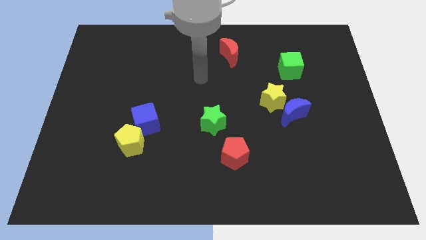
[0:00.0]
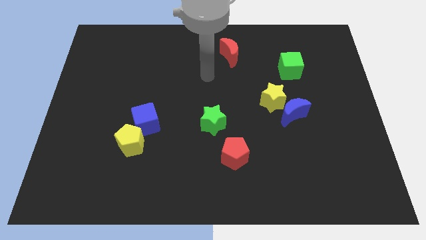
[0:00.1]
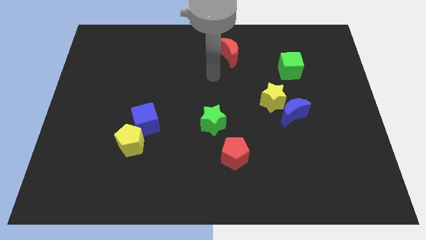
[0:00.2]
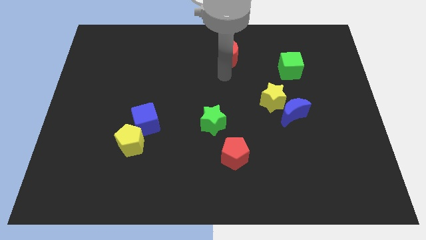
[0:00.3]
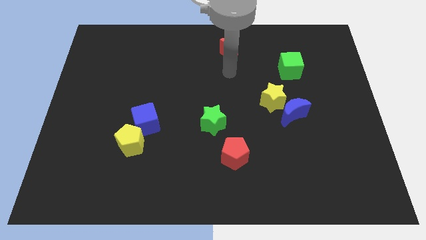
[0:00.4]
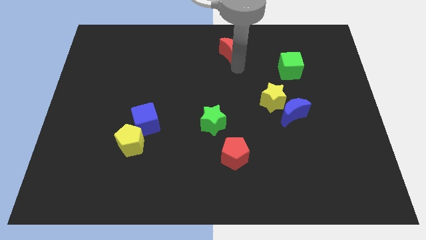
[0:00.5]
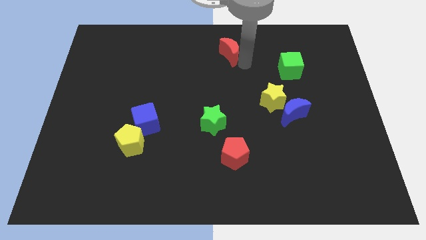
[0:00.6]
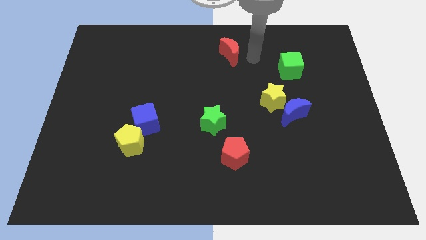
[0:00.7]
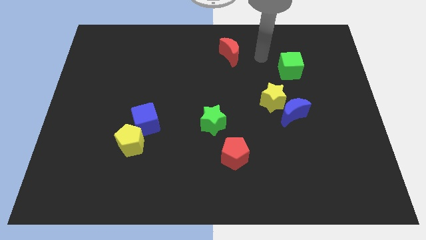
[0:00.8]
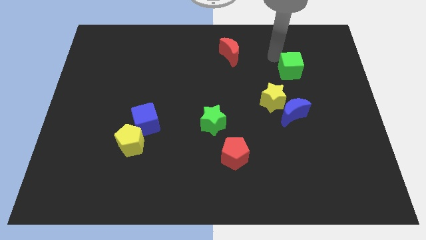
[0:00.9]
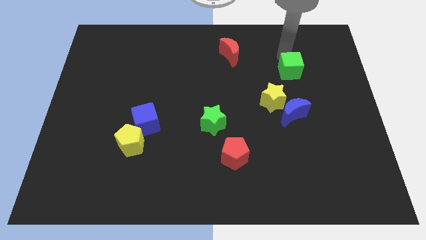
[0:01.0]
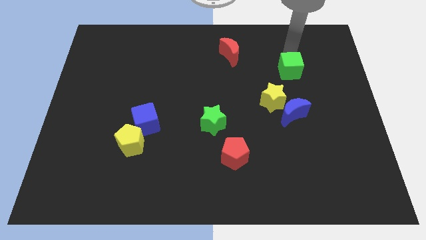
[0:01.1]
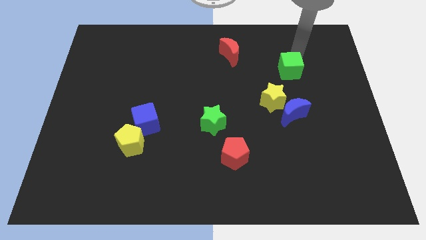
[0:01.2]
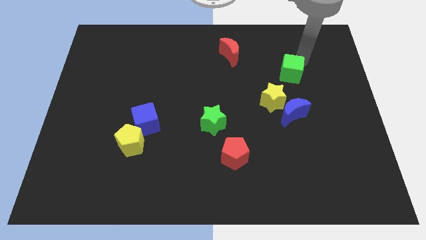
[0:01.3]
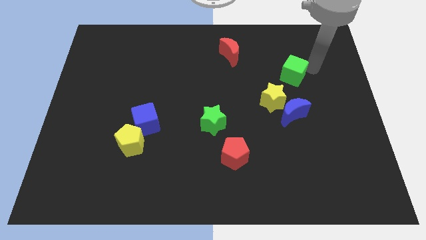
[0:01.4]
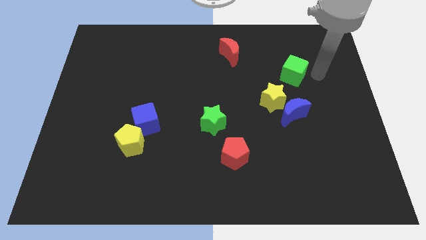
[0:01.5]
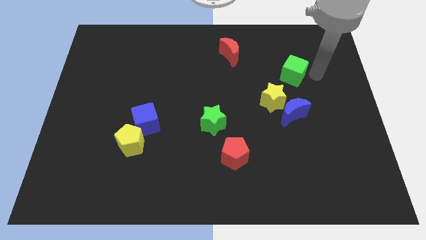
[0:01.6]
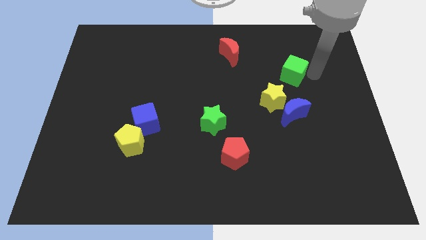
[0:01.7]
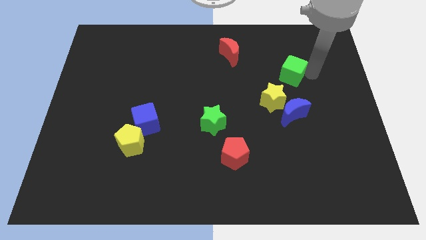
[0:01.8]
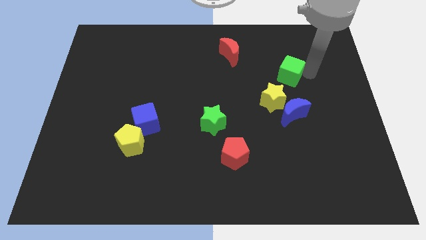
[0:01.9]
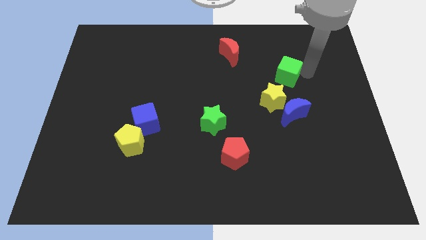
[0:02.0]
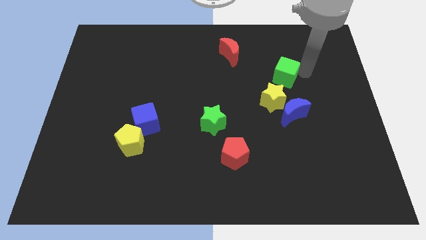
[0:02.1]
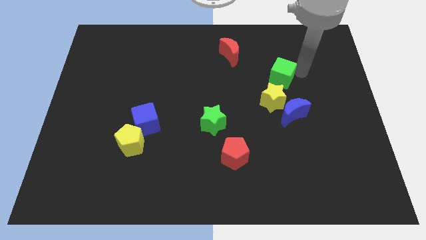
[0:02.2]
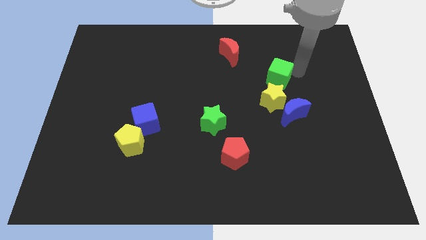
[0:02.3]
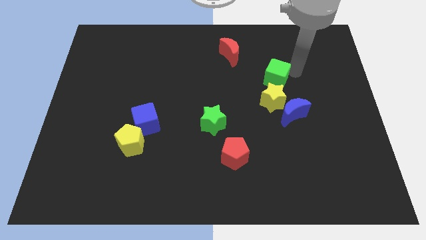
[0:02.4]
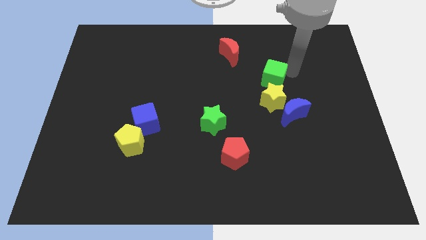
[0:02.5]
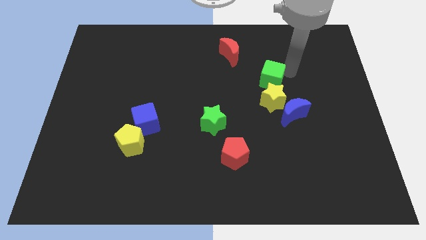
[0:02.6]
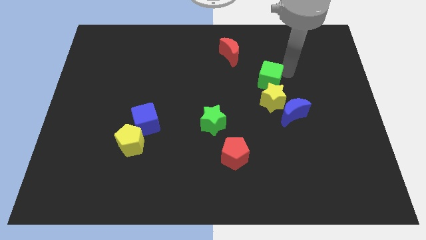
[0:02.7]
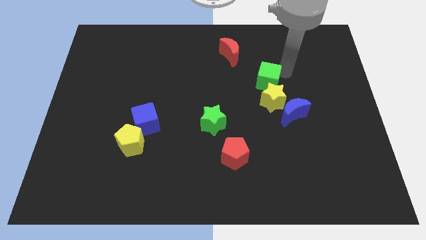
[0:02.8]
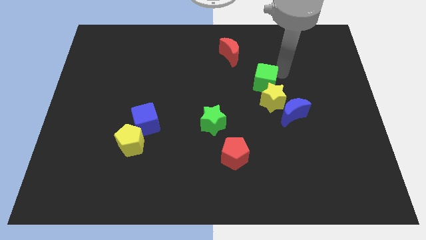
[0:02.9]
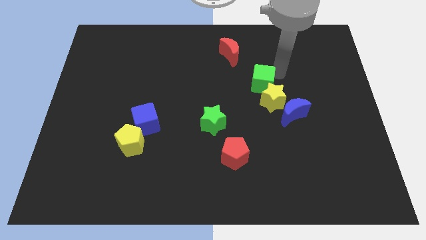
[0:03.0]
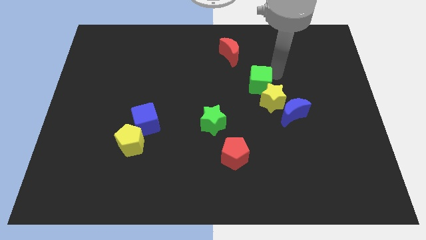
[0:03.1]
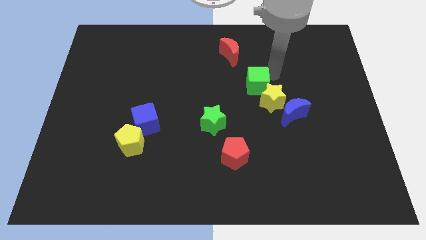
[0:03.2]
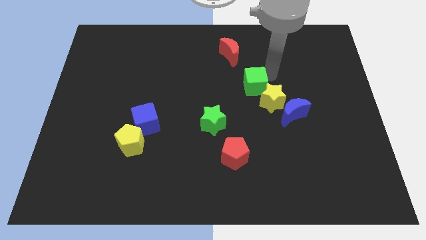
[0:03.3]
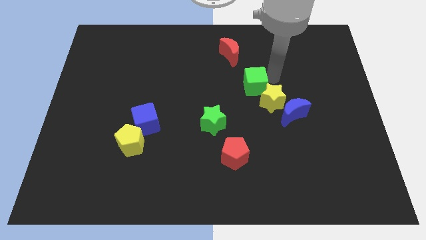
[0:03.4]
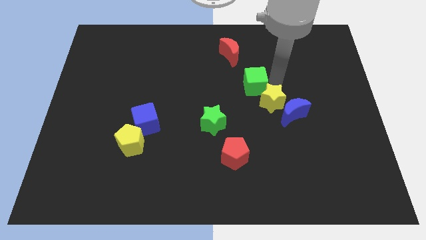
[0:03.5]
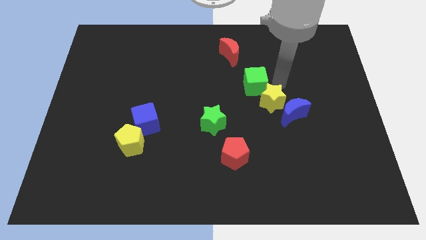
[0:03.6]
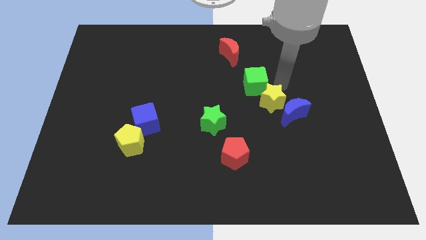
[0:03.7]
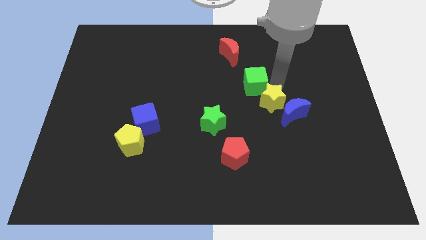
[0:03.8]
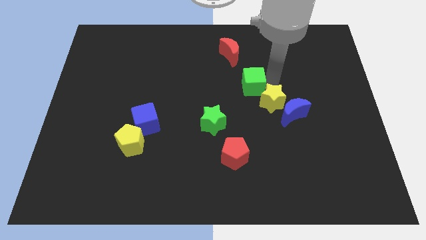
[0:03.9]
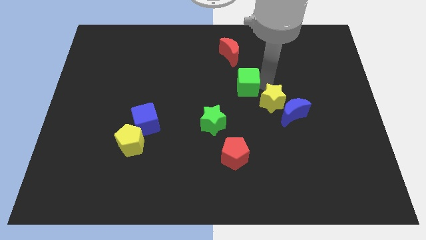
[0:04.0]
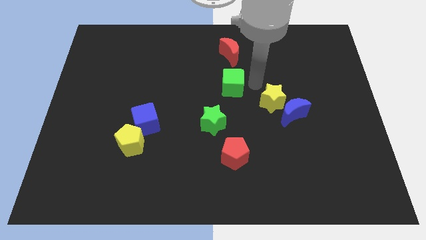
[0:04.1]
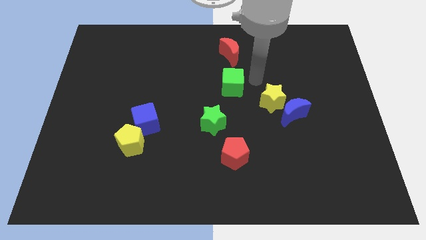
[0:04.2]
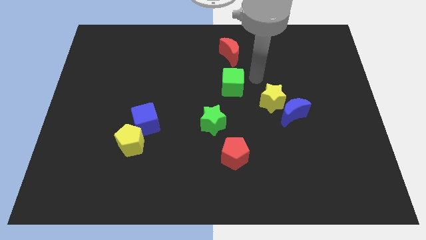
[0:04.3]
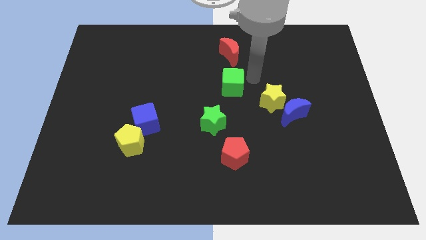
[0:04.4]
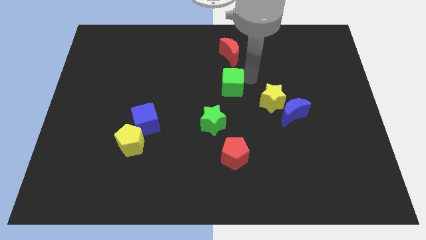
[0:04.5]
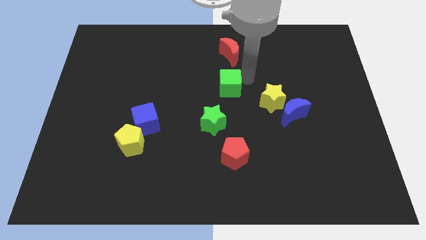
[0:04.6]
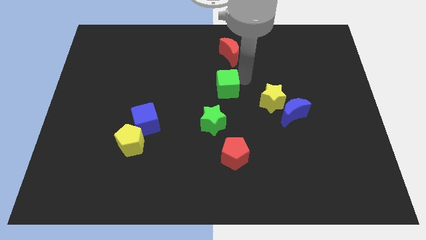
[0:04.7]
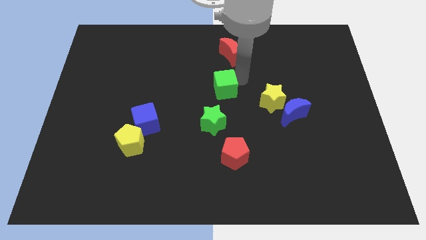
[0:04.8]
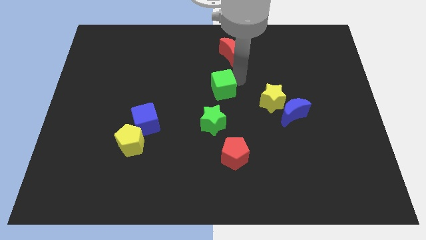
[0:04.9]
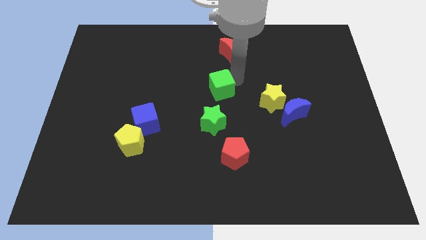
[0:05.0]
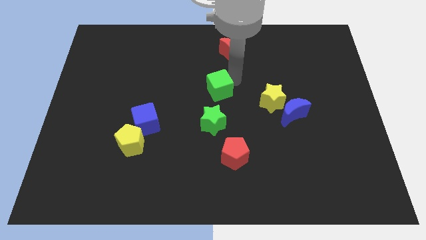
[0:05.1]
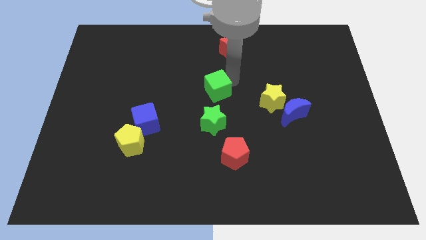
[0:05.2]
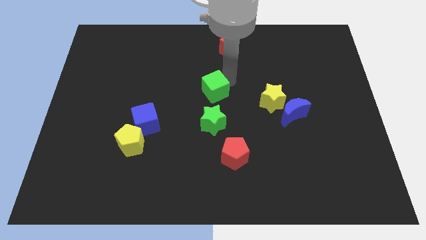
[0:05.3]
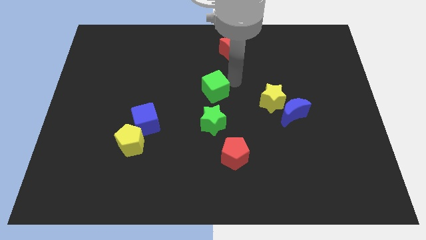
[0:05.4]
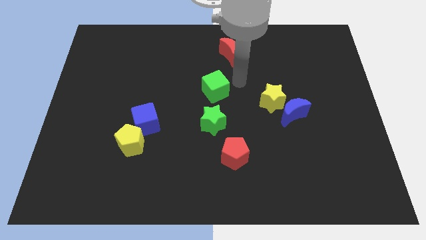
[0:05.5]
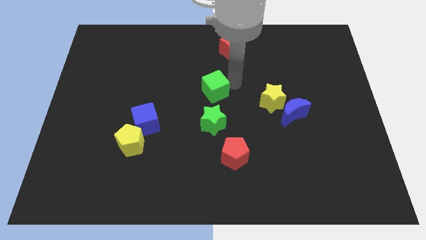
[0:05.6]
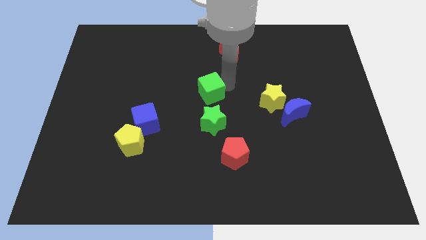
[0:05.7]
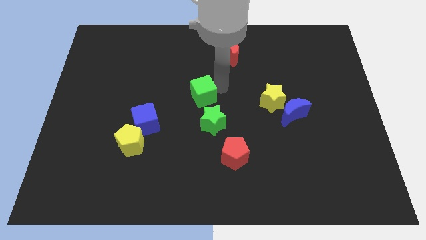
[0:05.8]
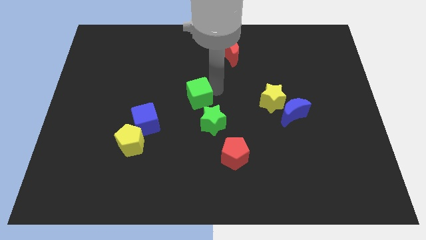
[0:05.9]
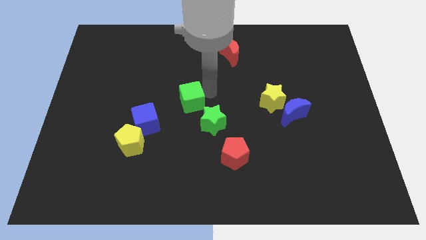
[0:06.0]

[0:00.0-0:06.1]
put the green cube diagonally up and to the right of the blue cube

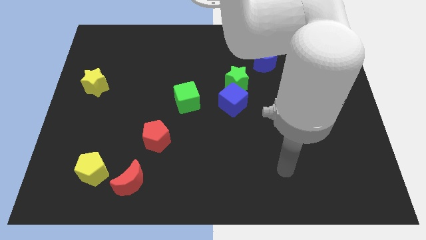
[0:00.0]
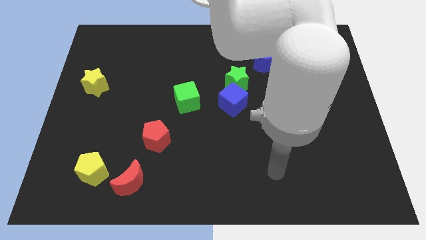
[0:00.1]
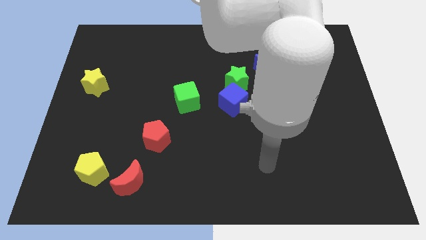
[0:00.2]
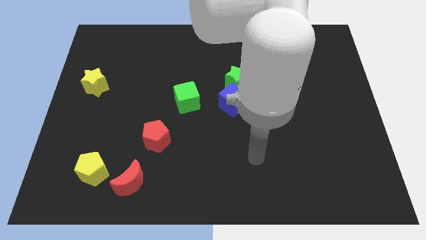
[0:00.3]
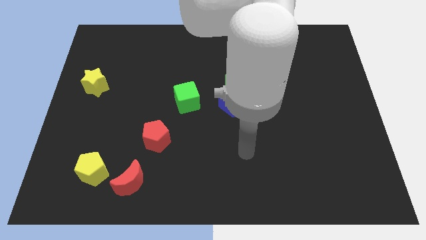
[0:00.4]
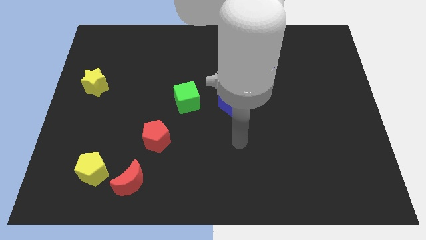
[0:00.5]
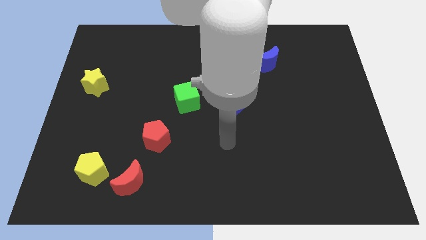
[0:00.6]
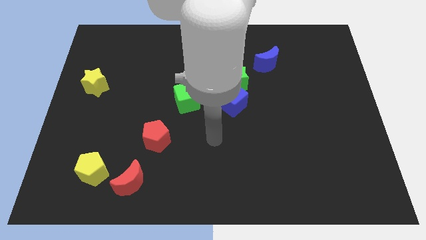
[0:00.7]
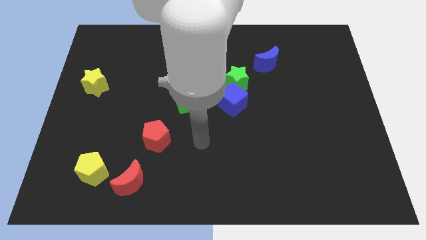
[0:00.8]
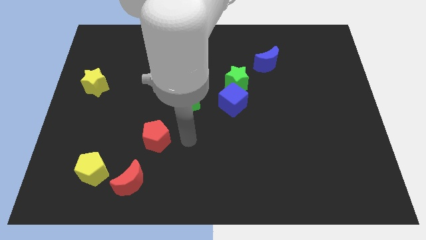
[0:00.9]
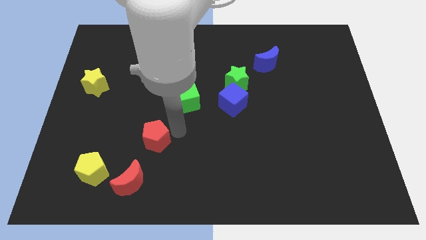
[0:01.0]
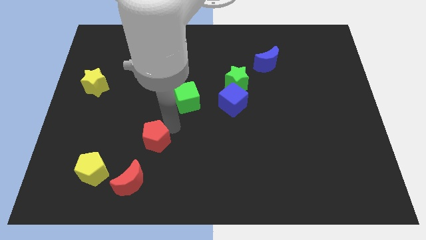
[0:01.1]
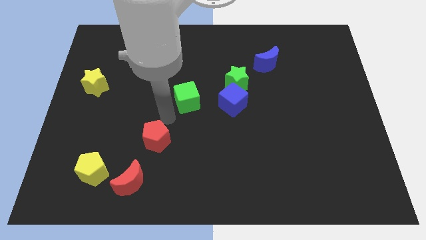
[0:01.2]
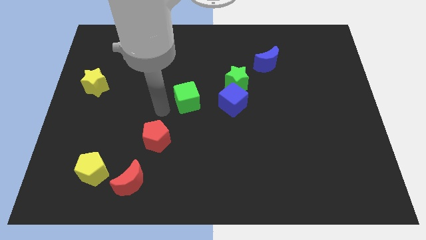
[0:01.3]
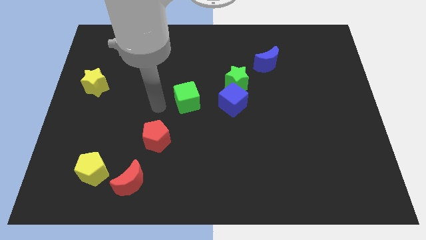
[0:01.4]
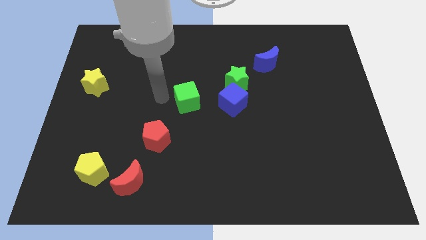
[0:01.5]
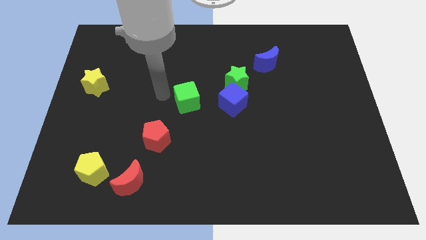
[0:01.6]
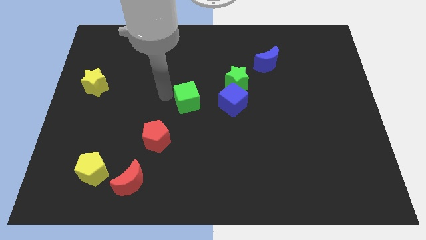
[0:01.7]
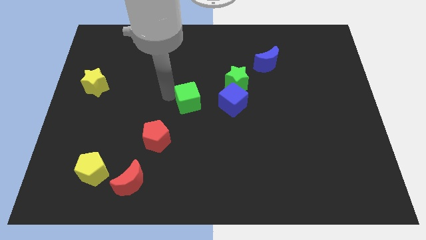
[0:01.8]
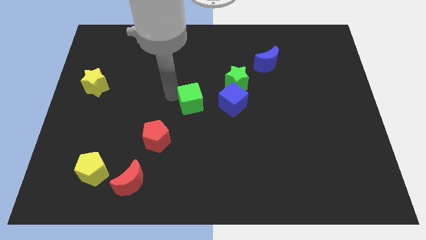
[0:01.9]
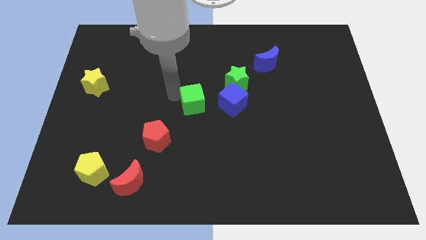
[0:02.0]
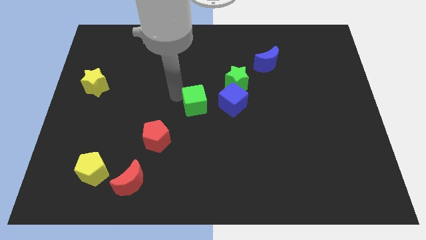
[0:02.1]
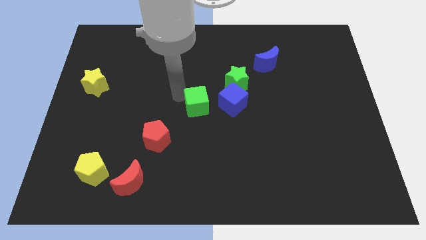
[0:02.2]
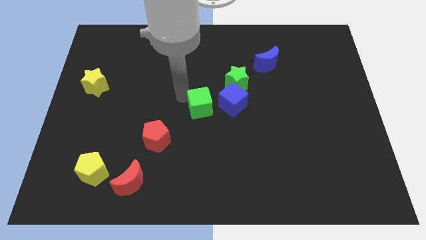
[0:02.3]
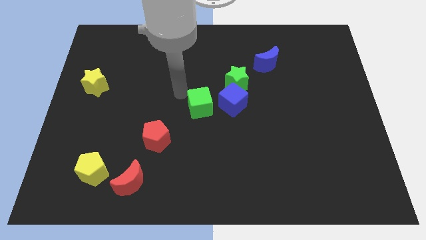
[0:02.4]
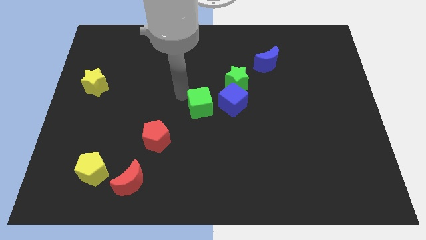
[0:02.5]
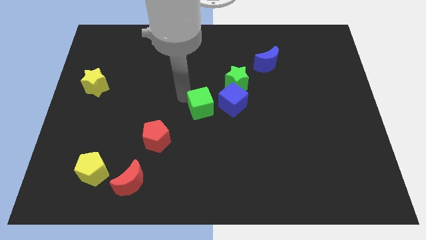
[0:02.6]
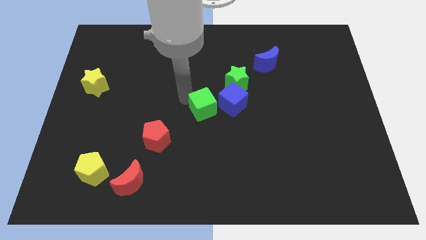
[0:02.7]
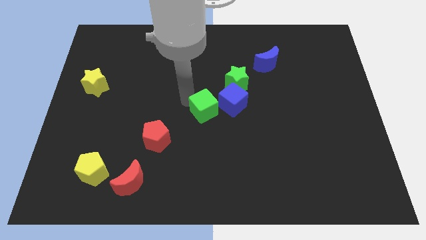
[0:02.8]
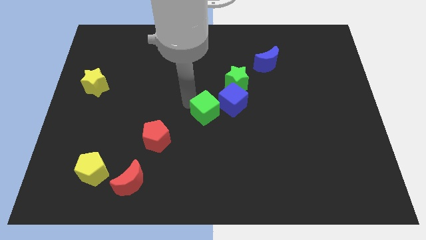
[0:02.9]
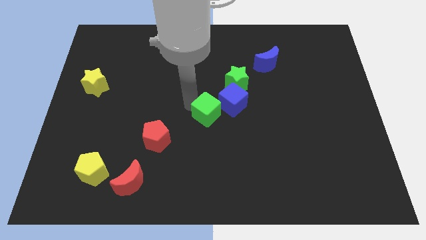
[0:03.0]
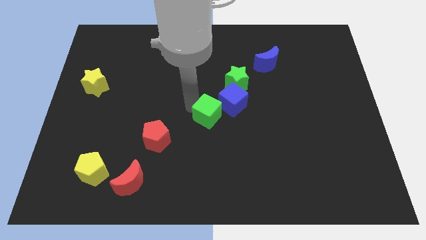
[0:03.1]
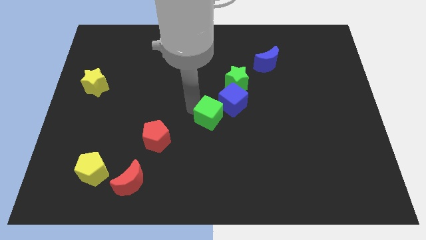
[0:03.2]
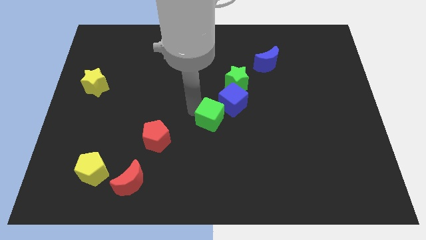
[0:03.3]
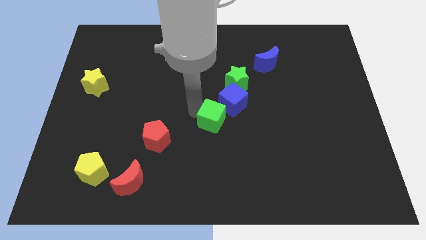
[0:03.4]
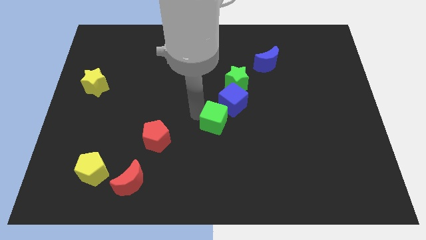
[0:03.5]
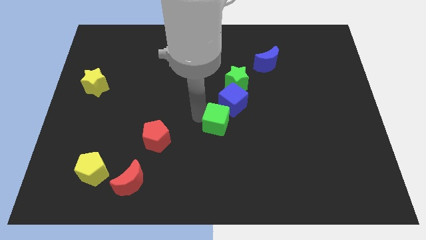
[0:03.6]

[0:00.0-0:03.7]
slide the green cube to the bottom side of the green star
